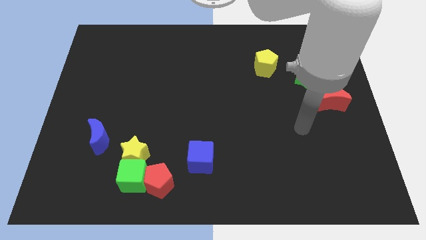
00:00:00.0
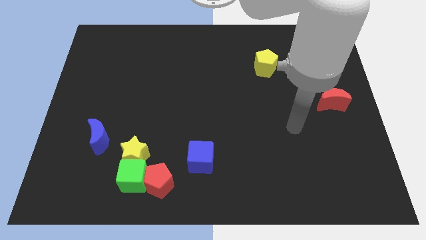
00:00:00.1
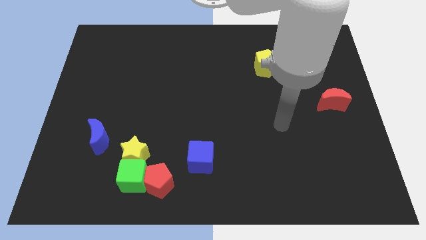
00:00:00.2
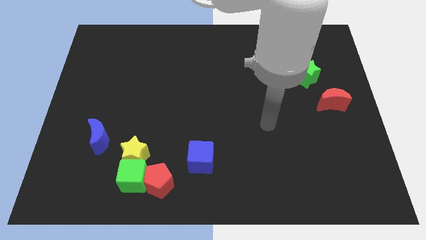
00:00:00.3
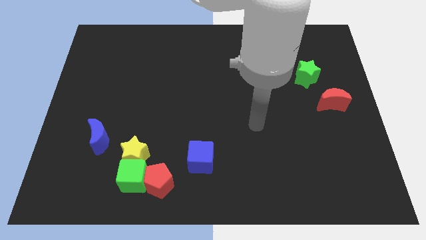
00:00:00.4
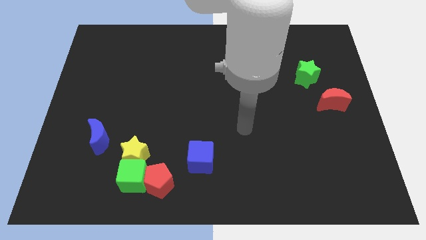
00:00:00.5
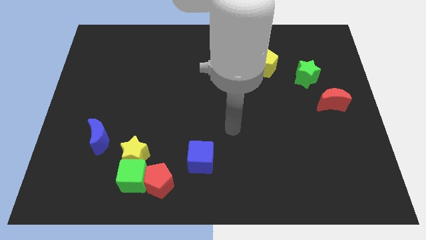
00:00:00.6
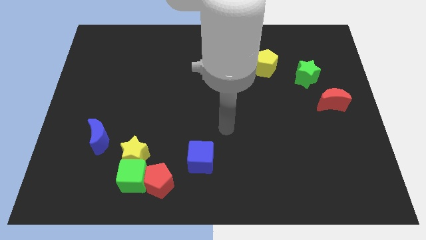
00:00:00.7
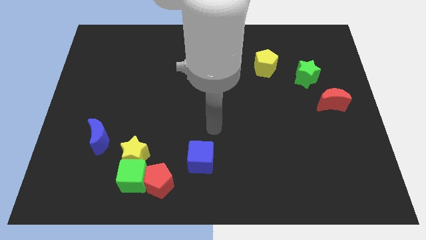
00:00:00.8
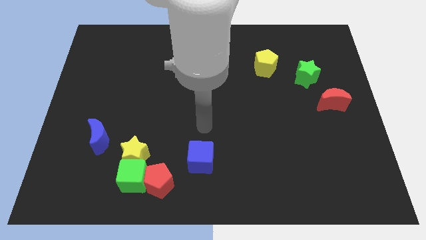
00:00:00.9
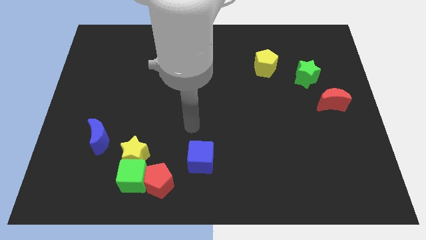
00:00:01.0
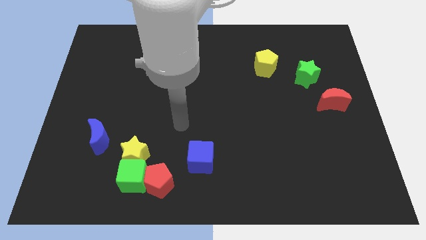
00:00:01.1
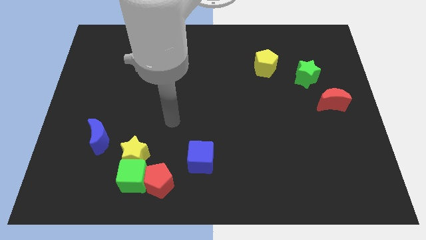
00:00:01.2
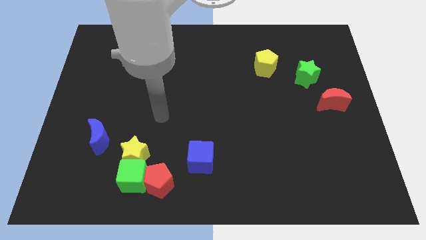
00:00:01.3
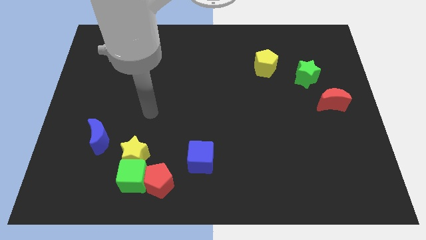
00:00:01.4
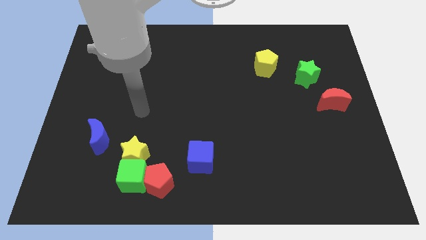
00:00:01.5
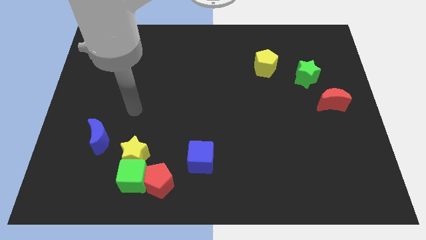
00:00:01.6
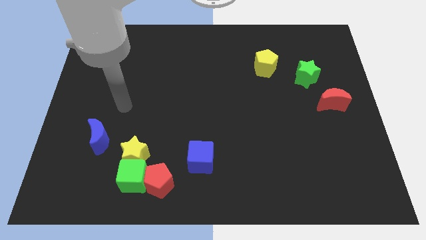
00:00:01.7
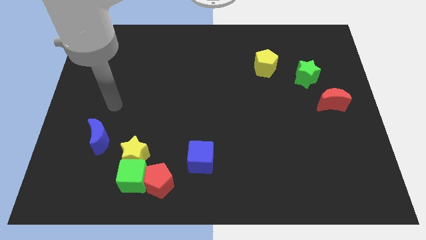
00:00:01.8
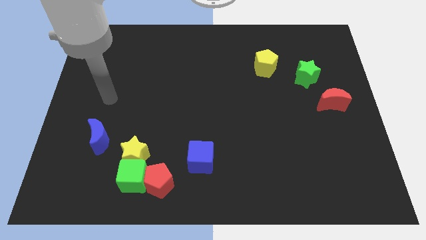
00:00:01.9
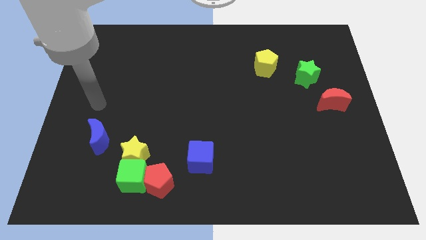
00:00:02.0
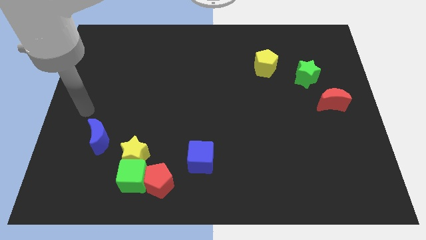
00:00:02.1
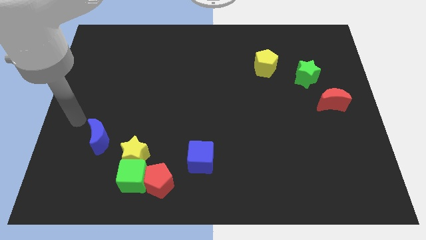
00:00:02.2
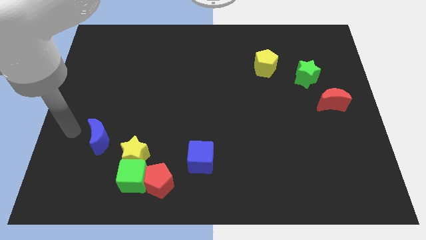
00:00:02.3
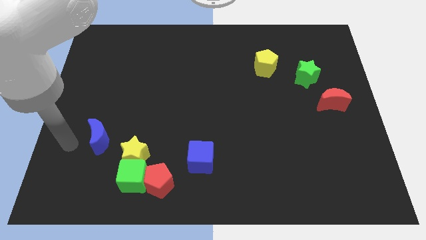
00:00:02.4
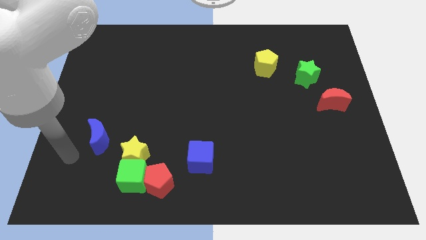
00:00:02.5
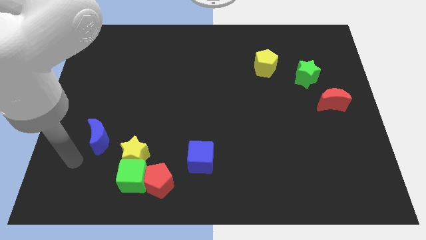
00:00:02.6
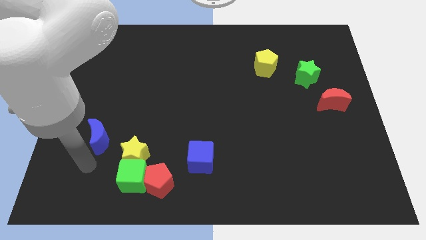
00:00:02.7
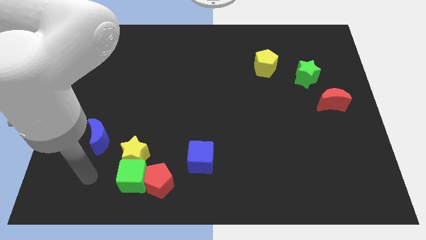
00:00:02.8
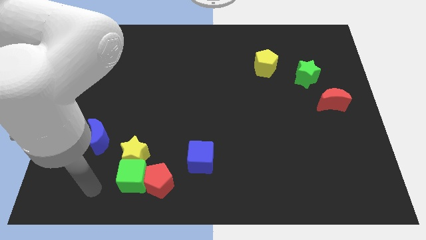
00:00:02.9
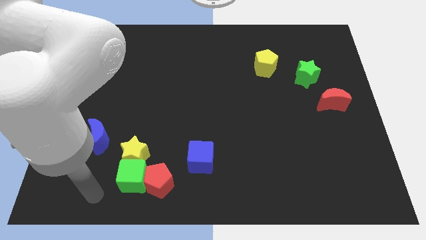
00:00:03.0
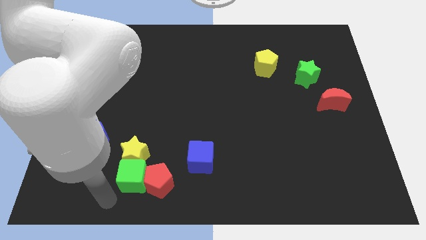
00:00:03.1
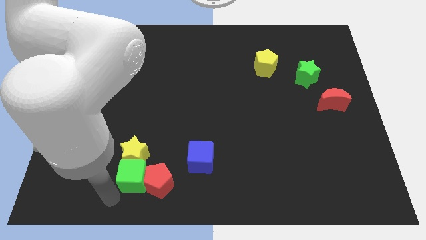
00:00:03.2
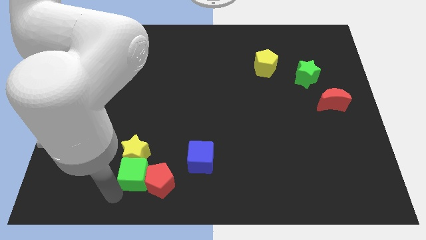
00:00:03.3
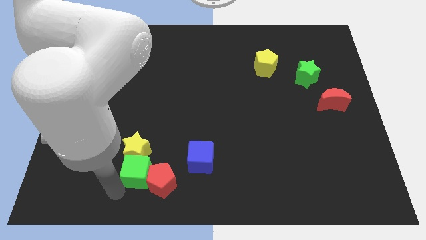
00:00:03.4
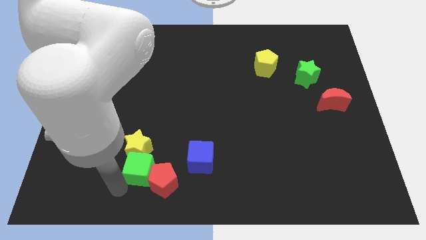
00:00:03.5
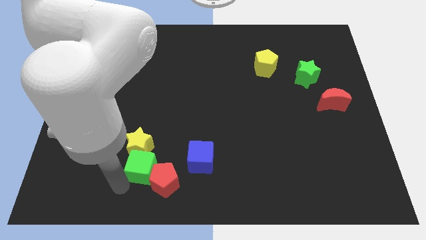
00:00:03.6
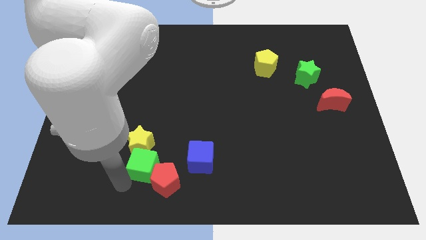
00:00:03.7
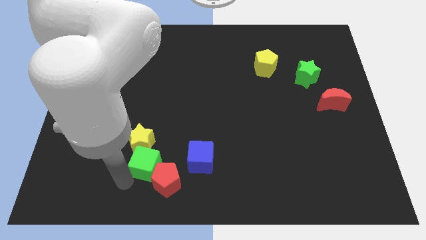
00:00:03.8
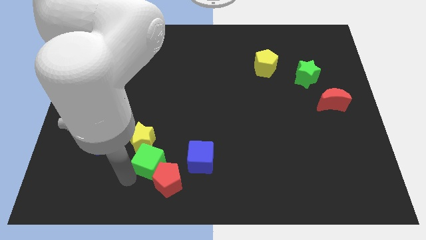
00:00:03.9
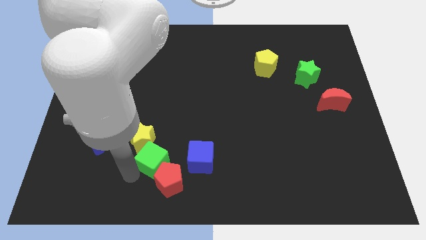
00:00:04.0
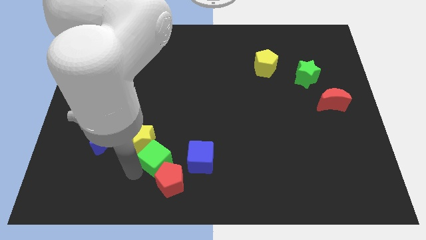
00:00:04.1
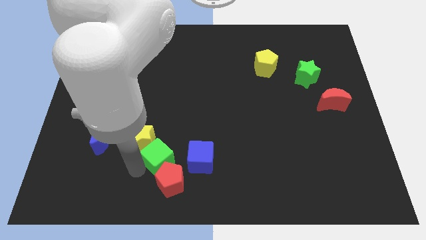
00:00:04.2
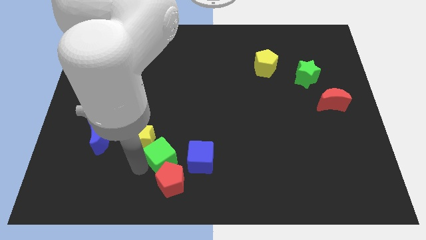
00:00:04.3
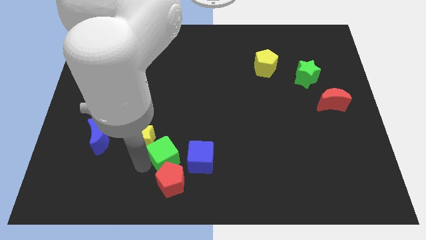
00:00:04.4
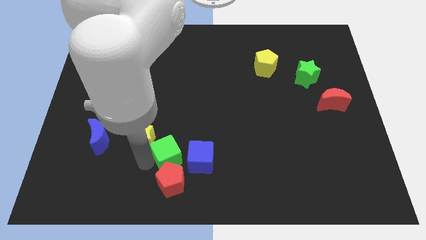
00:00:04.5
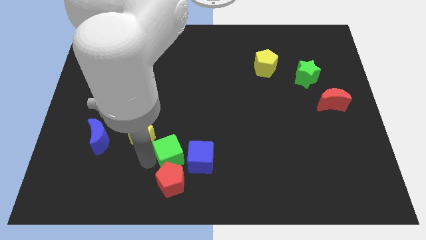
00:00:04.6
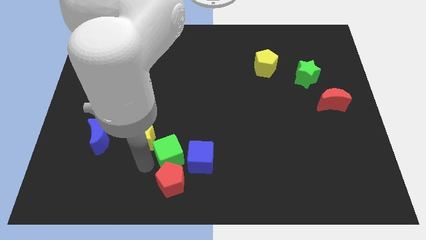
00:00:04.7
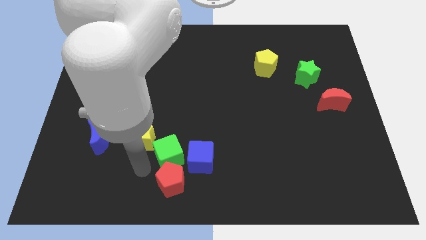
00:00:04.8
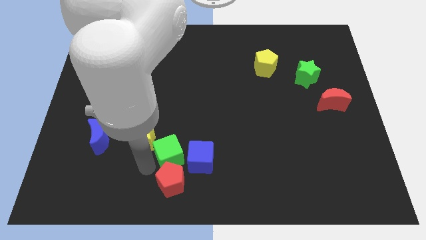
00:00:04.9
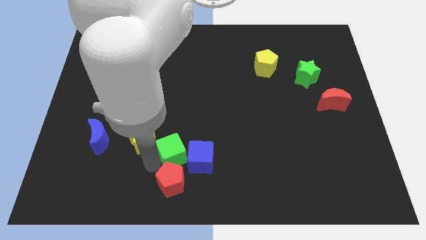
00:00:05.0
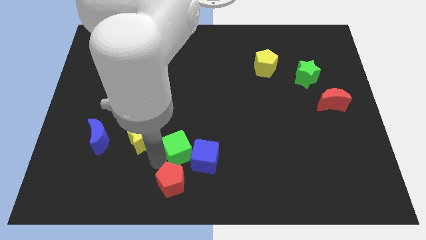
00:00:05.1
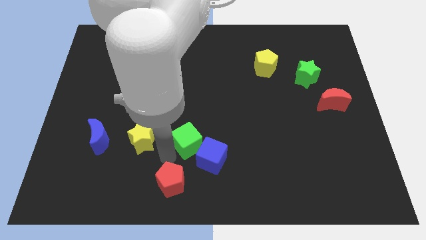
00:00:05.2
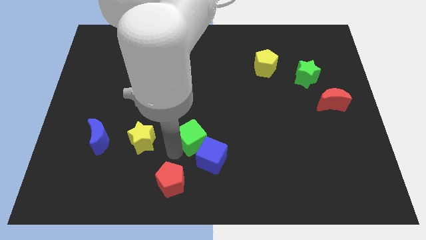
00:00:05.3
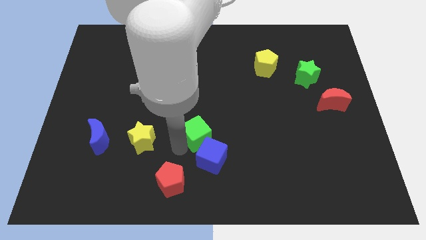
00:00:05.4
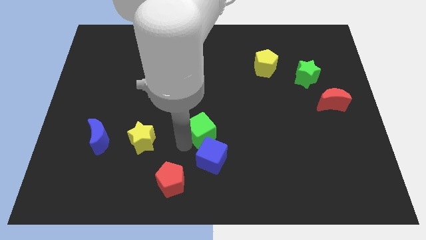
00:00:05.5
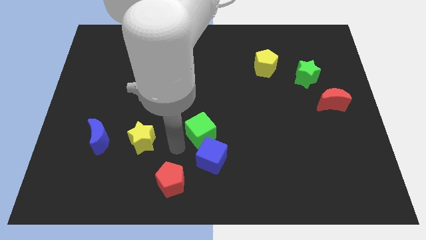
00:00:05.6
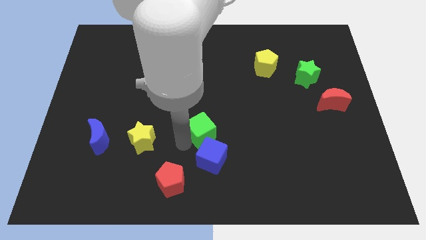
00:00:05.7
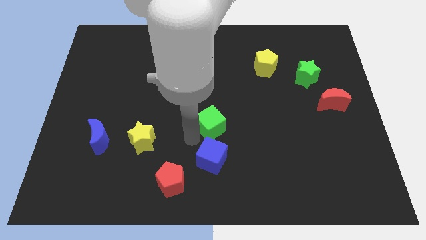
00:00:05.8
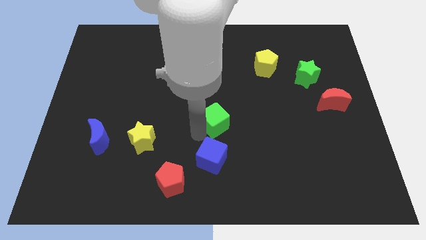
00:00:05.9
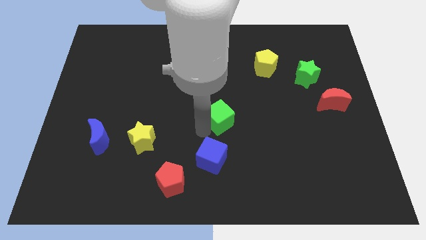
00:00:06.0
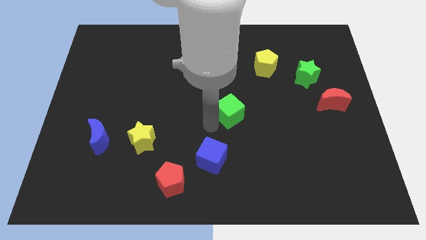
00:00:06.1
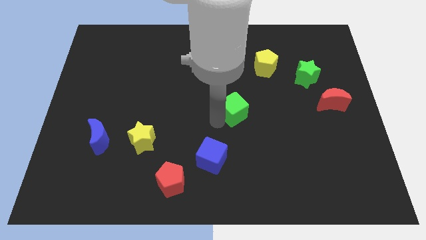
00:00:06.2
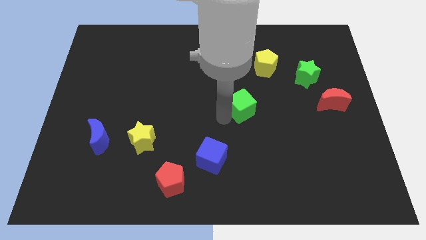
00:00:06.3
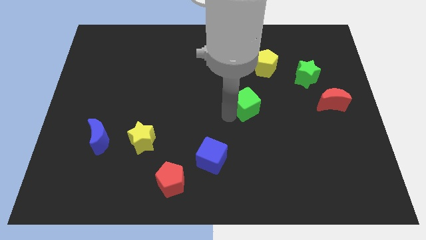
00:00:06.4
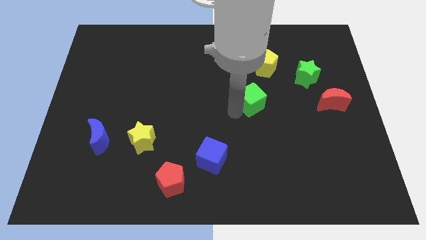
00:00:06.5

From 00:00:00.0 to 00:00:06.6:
push the green cube to the bottom side of the yellow pentagon

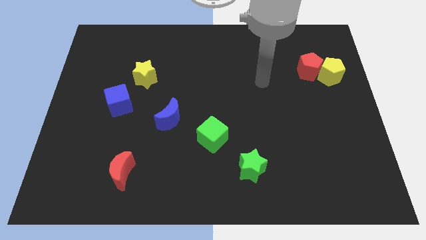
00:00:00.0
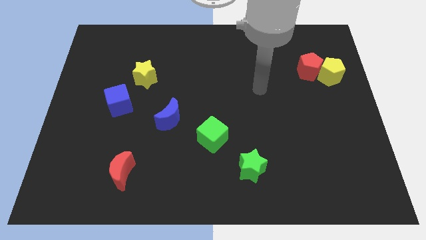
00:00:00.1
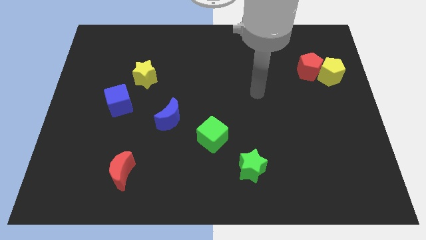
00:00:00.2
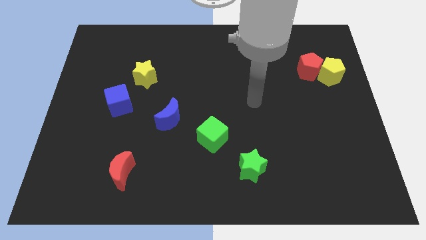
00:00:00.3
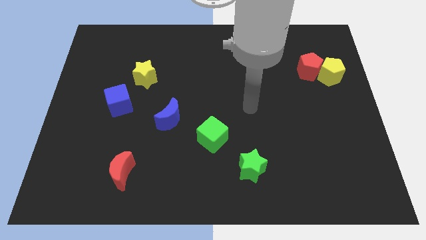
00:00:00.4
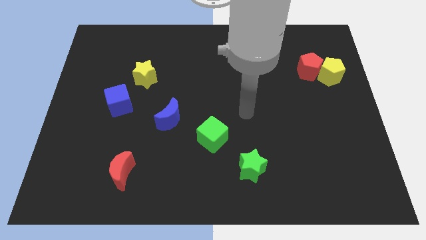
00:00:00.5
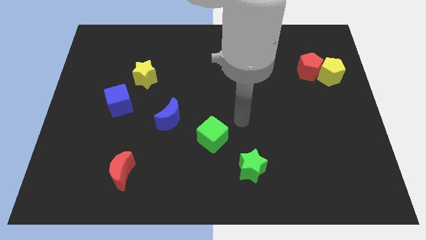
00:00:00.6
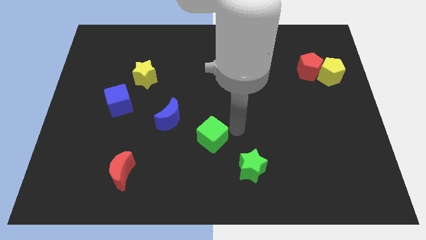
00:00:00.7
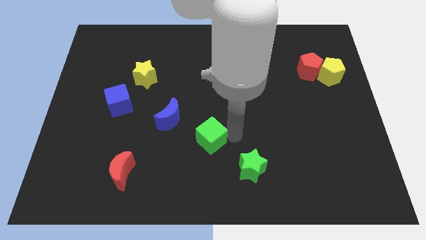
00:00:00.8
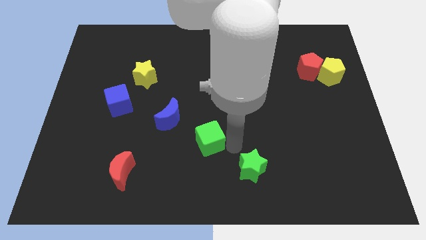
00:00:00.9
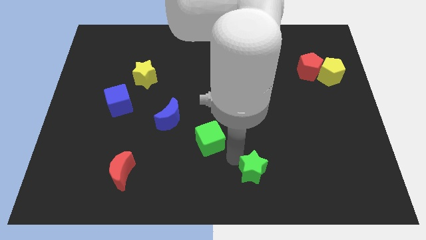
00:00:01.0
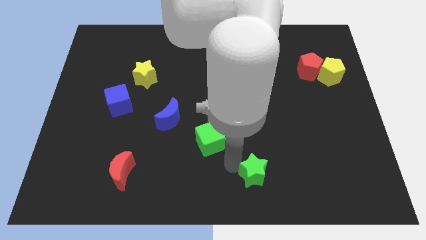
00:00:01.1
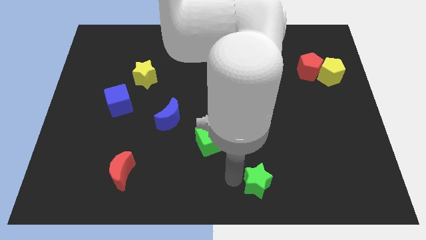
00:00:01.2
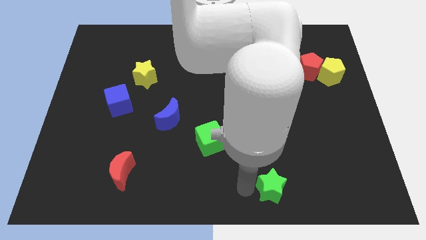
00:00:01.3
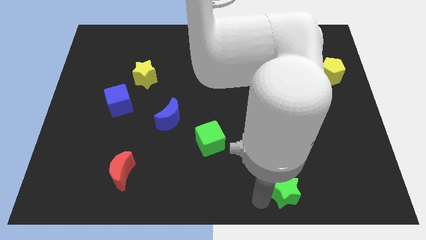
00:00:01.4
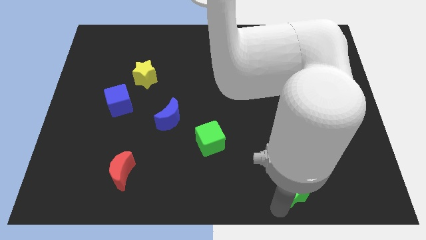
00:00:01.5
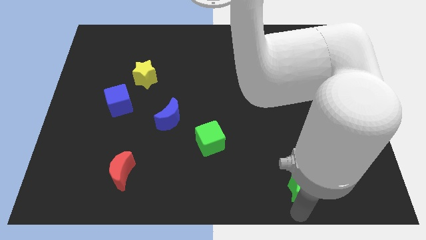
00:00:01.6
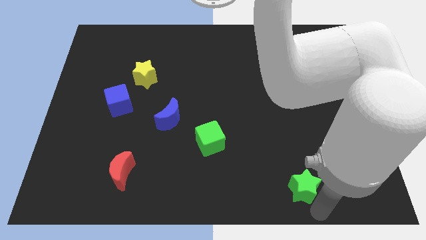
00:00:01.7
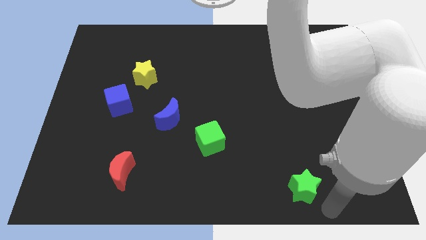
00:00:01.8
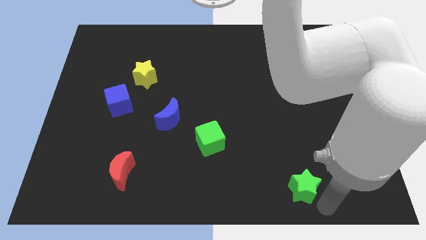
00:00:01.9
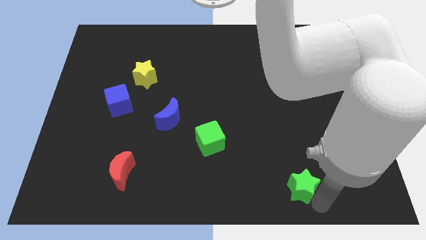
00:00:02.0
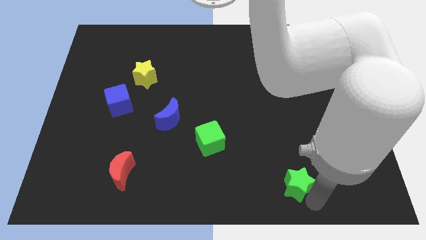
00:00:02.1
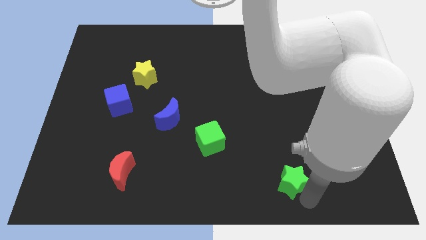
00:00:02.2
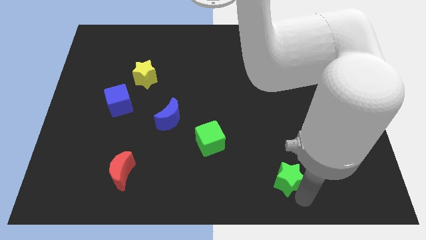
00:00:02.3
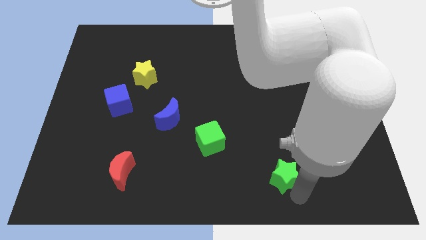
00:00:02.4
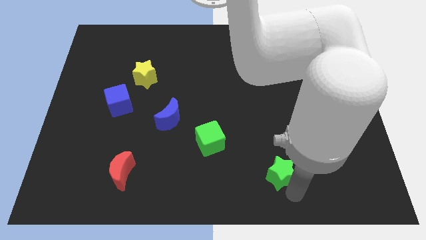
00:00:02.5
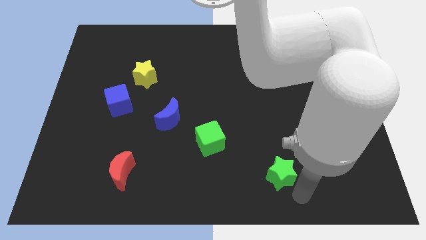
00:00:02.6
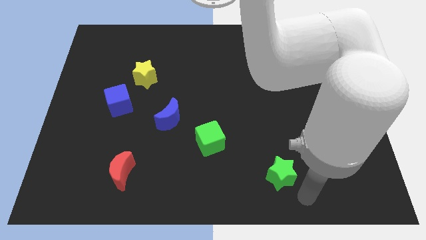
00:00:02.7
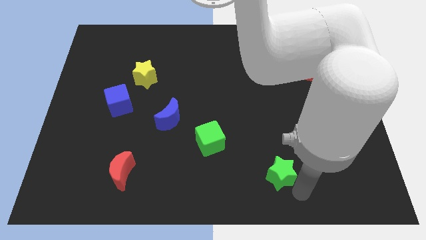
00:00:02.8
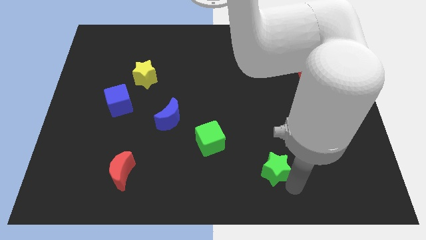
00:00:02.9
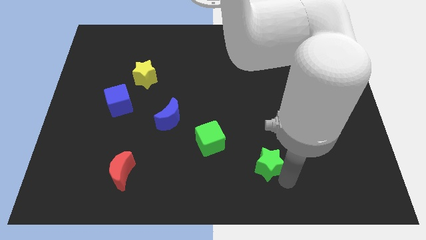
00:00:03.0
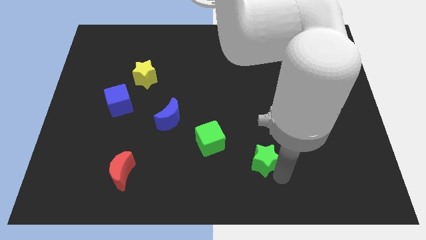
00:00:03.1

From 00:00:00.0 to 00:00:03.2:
slide the green star to the right of the green cube
